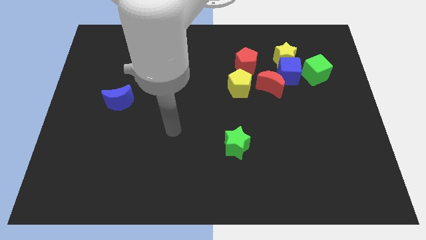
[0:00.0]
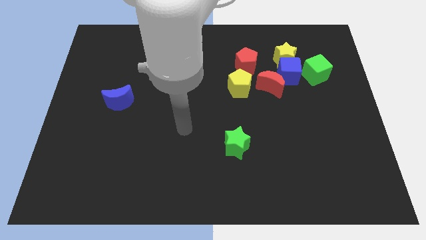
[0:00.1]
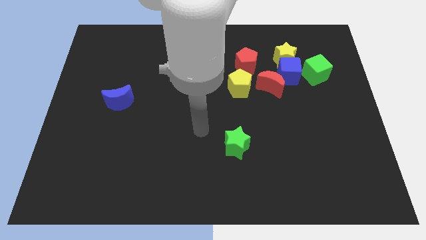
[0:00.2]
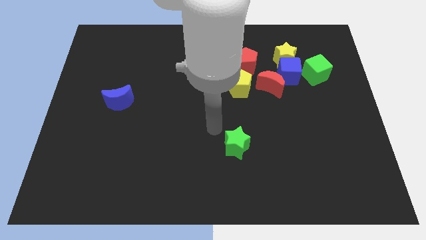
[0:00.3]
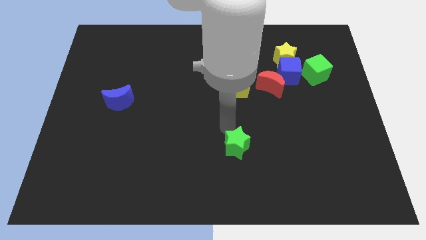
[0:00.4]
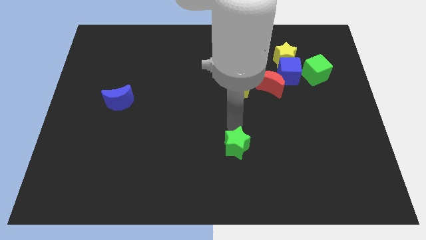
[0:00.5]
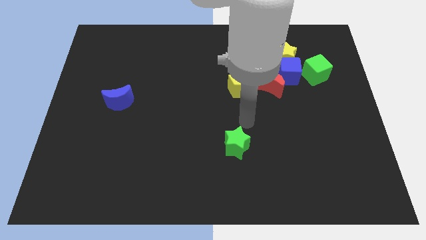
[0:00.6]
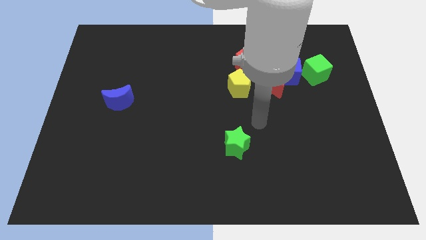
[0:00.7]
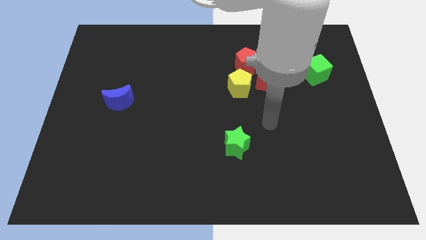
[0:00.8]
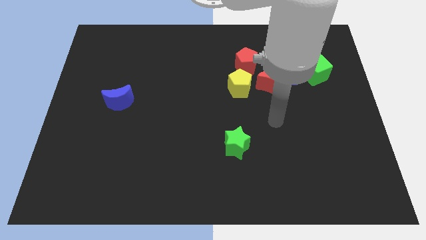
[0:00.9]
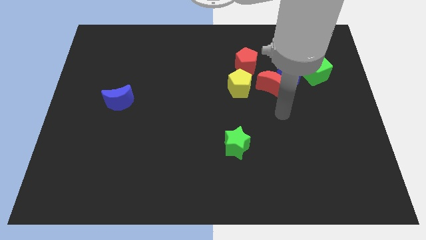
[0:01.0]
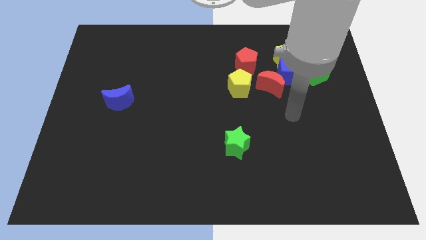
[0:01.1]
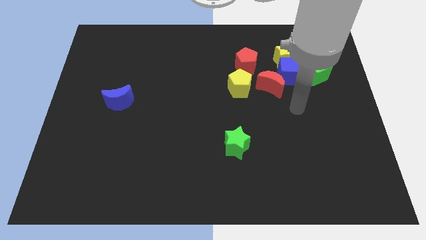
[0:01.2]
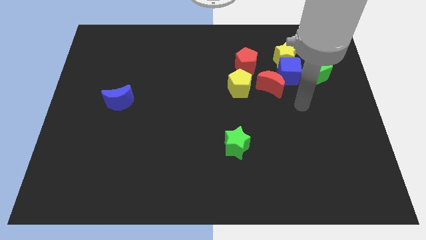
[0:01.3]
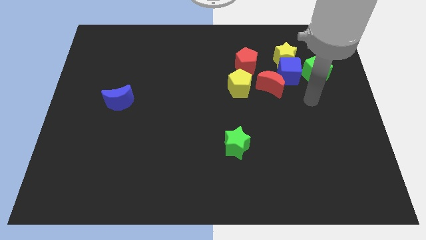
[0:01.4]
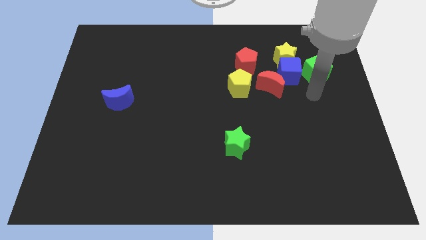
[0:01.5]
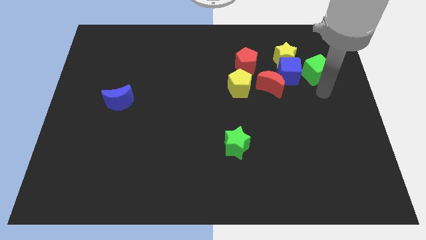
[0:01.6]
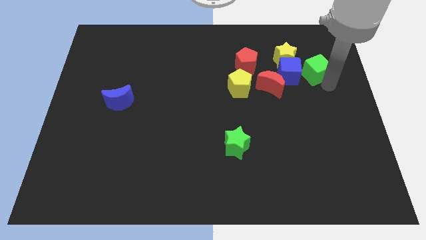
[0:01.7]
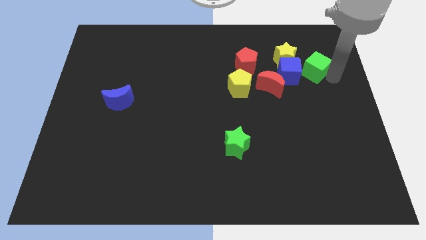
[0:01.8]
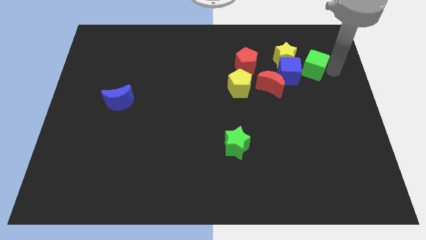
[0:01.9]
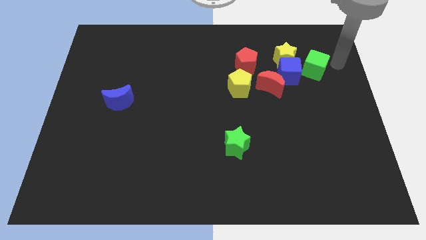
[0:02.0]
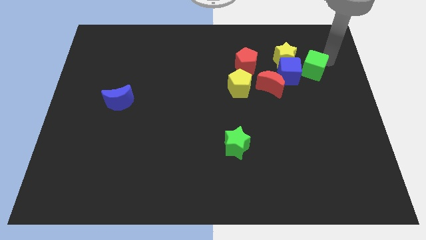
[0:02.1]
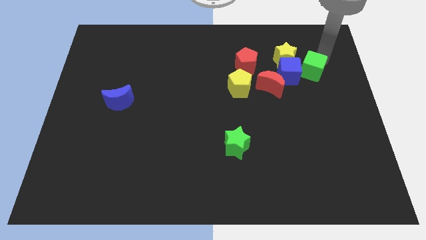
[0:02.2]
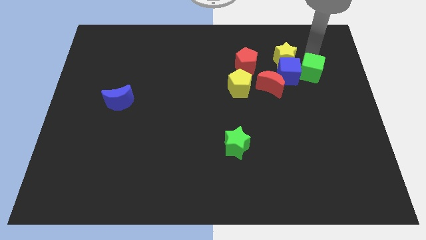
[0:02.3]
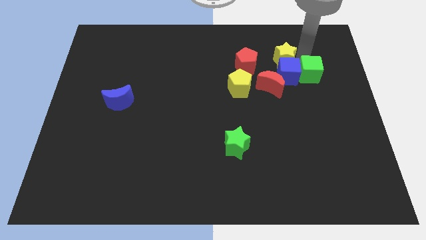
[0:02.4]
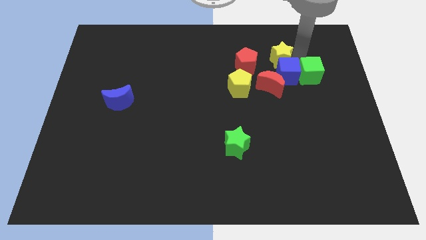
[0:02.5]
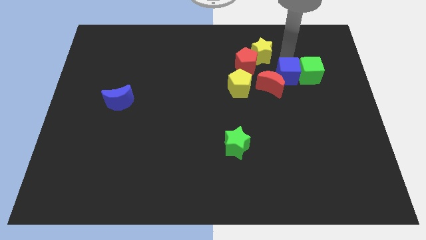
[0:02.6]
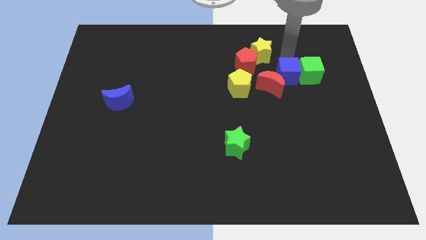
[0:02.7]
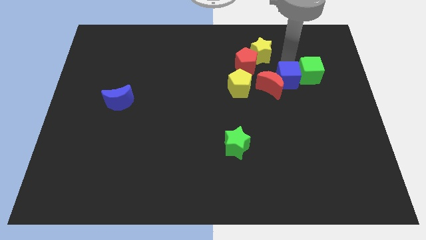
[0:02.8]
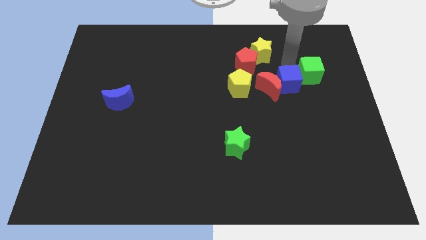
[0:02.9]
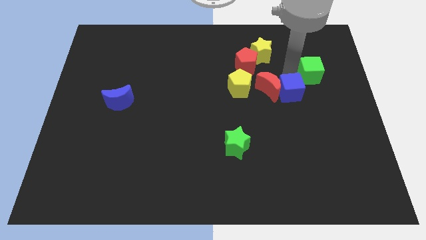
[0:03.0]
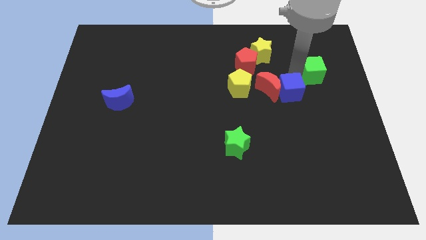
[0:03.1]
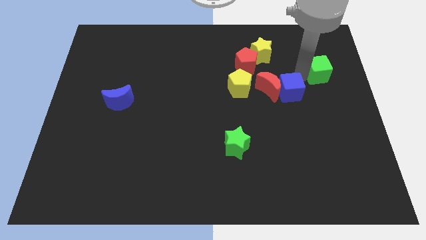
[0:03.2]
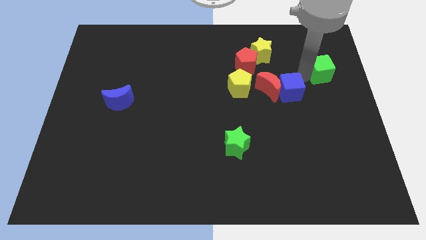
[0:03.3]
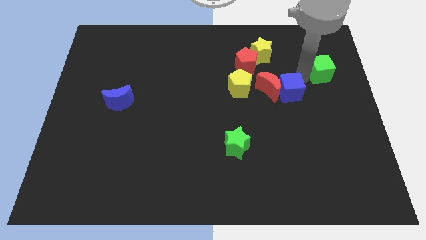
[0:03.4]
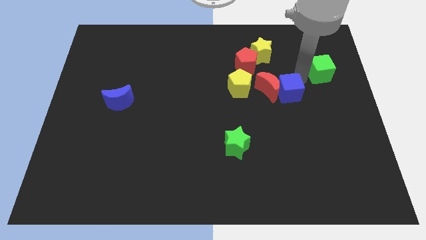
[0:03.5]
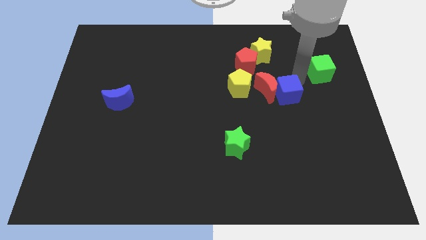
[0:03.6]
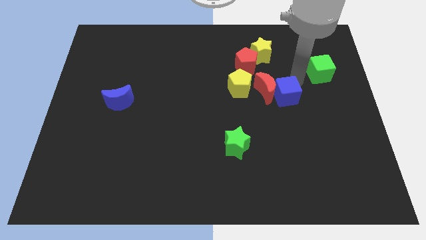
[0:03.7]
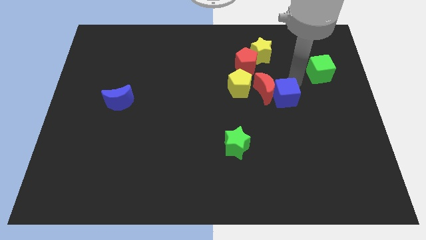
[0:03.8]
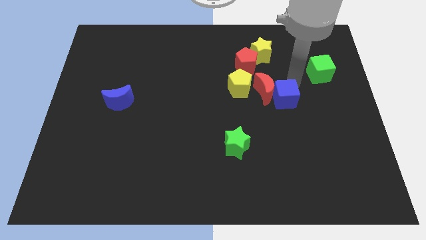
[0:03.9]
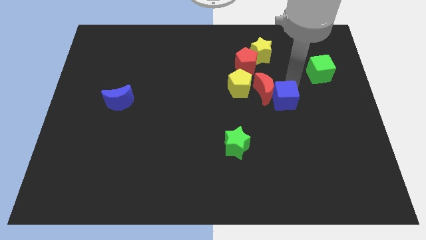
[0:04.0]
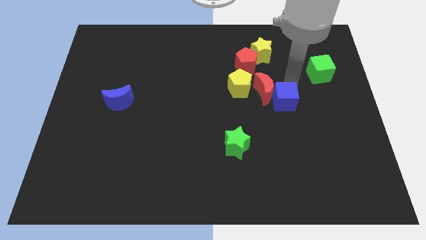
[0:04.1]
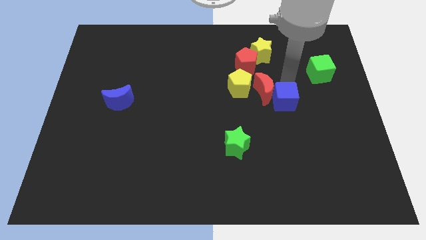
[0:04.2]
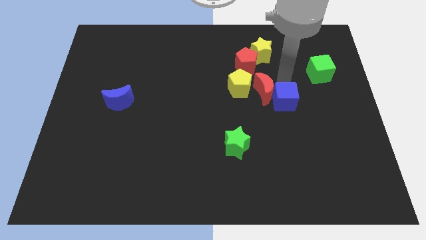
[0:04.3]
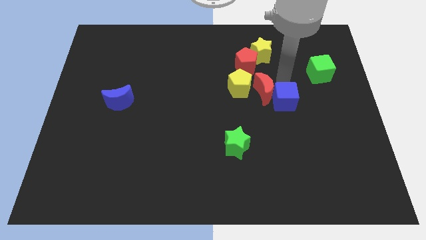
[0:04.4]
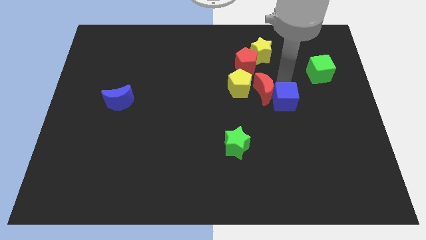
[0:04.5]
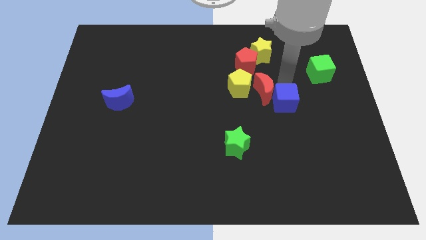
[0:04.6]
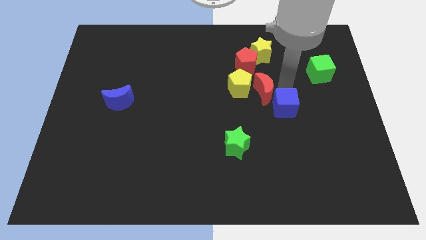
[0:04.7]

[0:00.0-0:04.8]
pull the blue cube apart from the clump

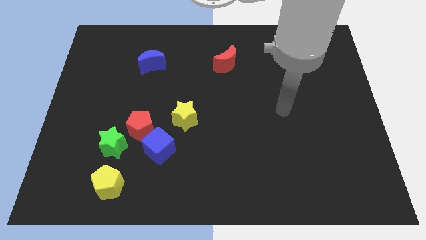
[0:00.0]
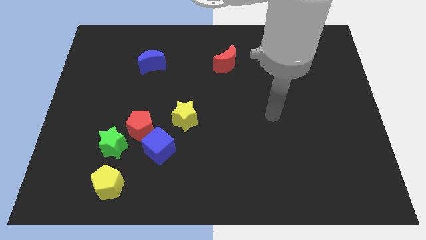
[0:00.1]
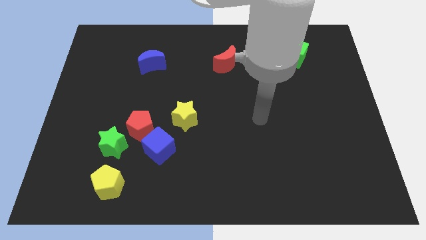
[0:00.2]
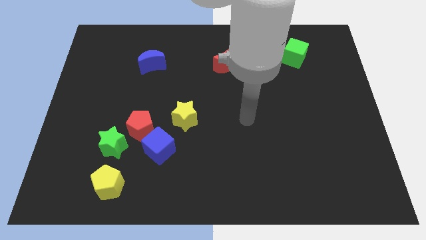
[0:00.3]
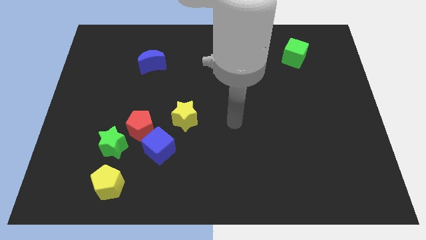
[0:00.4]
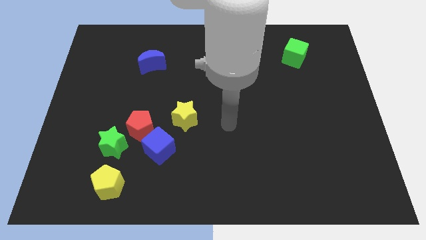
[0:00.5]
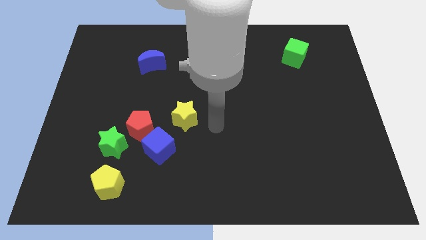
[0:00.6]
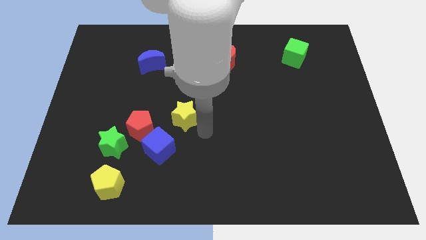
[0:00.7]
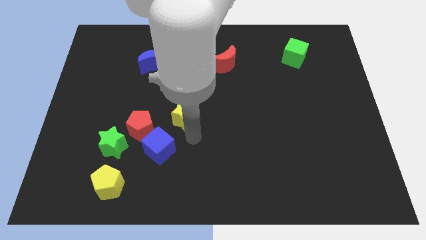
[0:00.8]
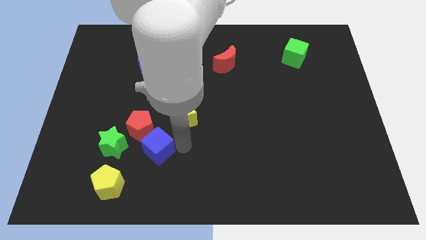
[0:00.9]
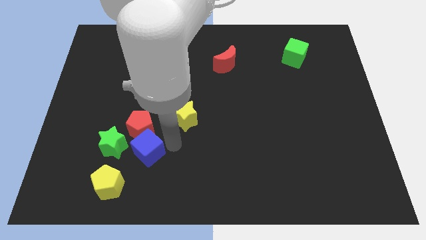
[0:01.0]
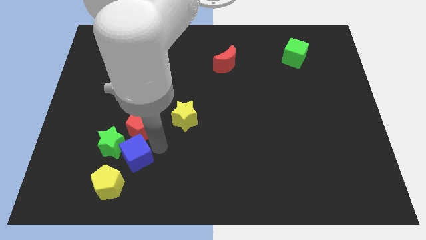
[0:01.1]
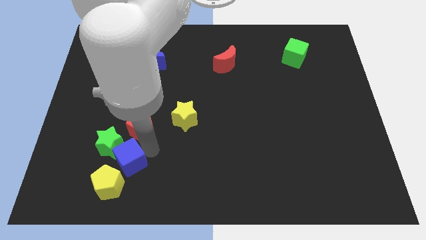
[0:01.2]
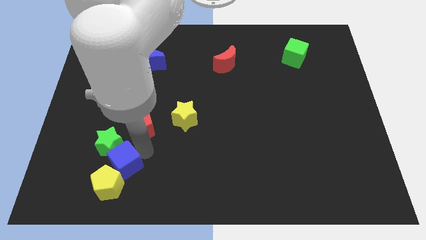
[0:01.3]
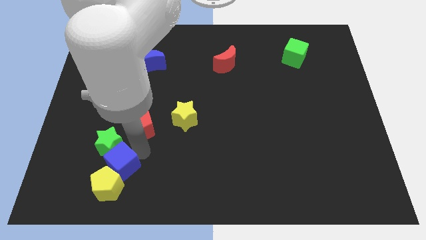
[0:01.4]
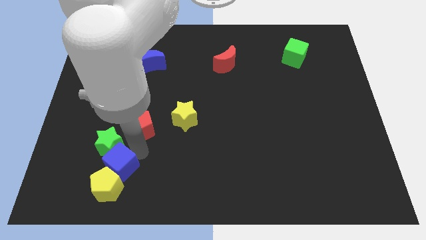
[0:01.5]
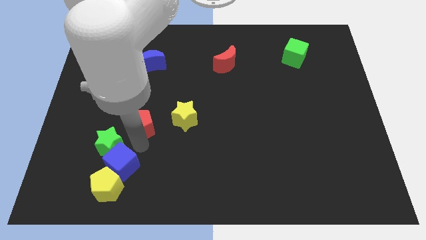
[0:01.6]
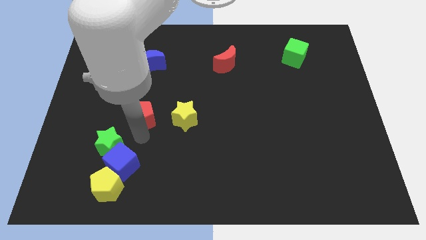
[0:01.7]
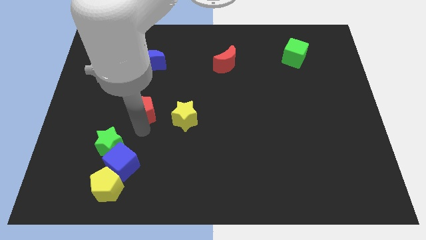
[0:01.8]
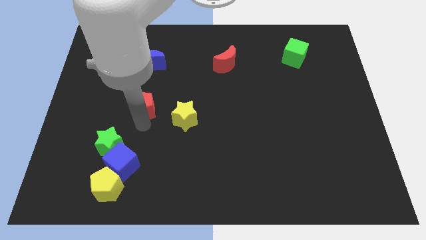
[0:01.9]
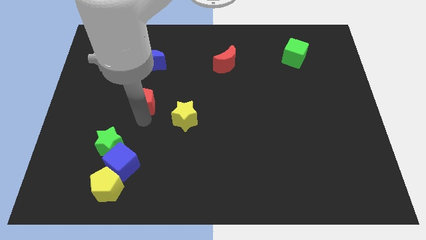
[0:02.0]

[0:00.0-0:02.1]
pull the red pentagon apart from the blue cube, green star, and yellow star

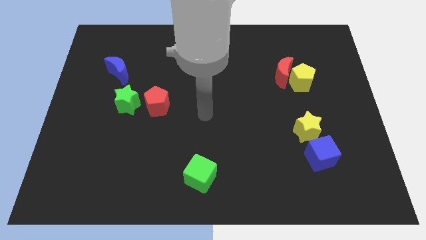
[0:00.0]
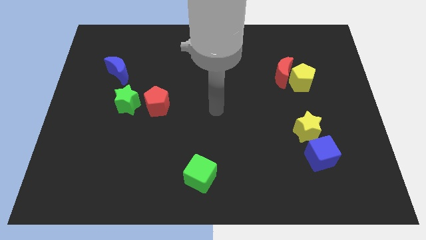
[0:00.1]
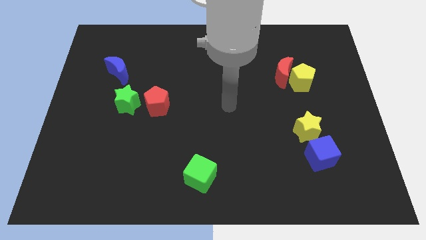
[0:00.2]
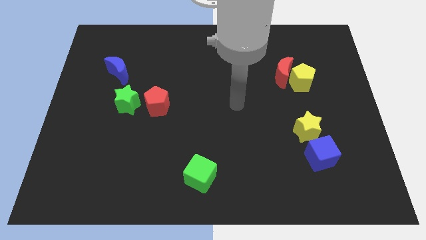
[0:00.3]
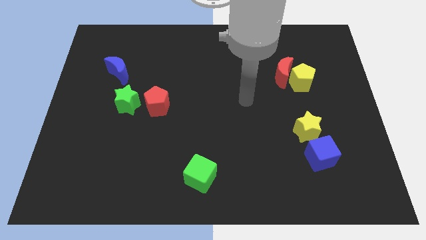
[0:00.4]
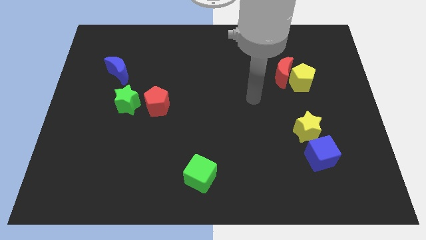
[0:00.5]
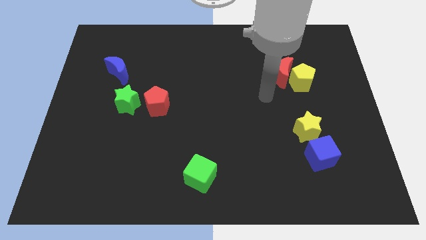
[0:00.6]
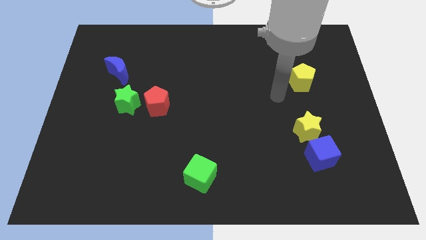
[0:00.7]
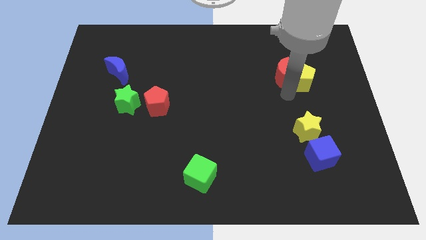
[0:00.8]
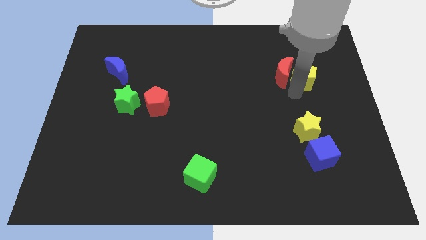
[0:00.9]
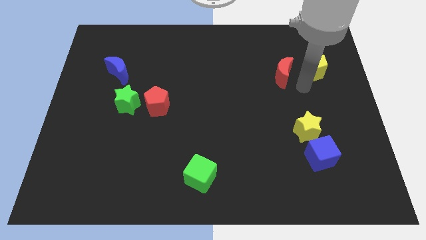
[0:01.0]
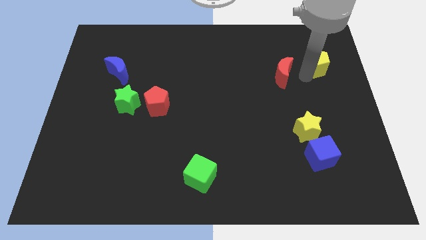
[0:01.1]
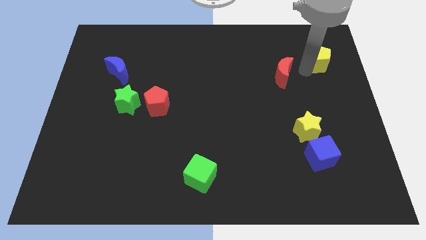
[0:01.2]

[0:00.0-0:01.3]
separate the red moon from the yellow pentagon

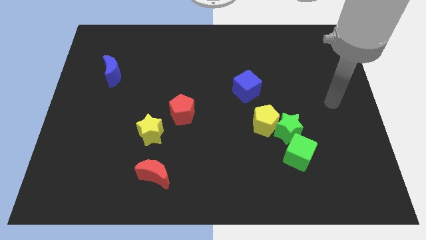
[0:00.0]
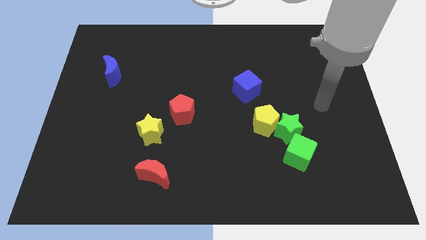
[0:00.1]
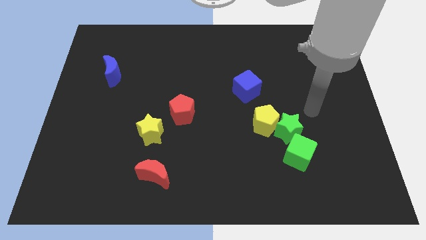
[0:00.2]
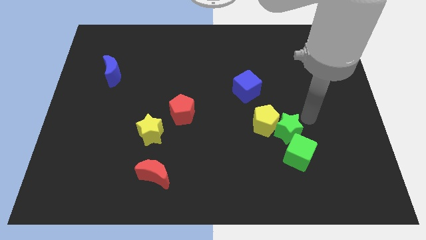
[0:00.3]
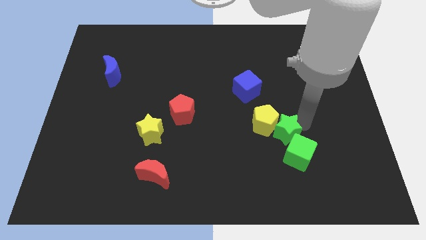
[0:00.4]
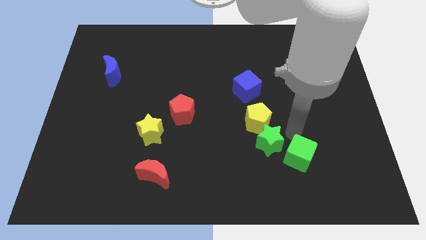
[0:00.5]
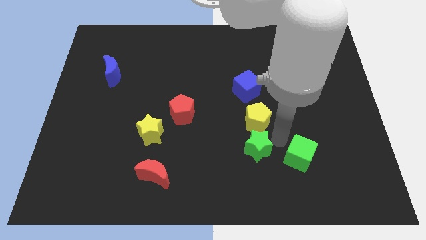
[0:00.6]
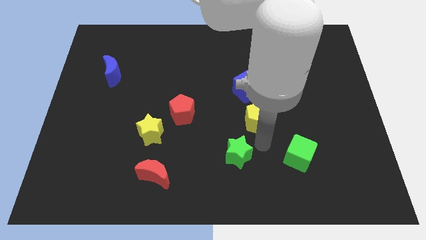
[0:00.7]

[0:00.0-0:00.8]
pull the yellow pentagon apart from the green star

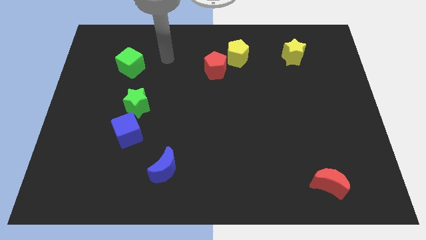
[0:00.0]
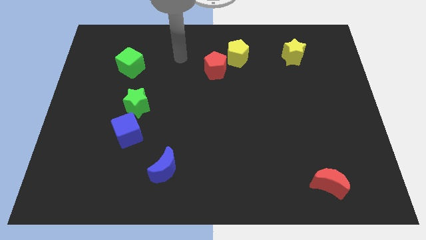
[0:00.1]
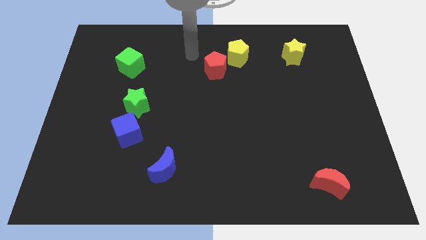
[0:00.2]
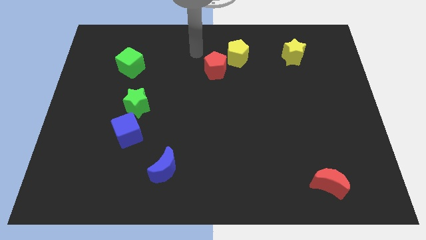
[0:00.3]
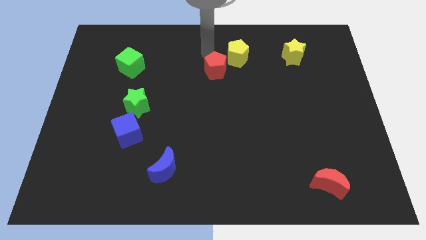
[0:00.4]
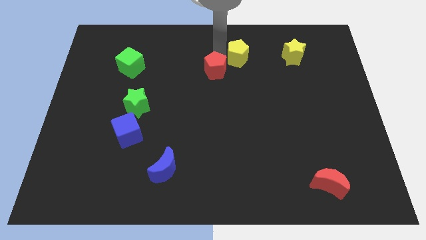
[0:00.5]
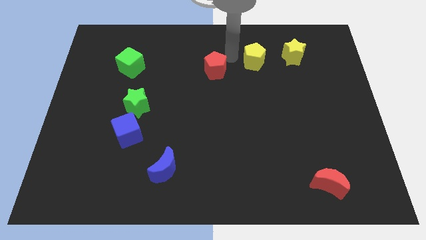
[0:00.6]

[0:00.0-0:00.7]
separate the red pentagon from the yellow pentagon
